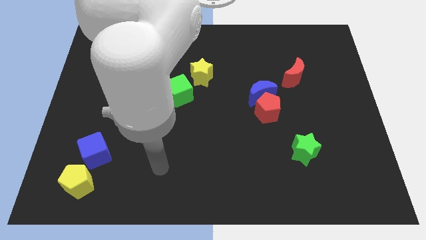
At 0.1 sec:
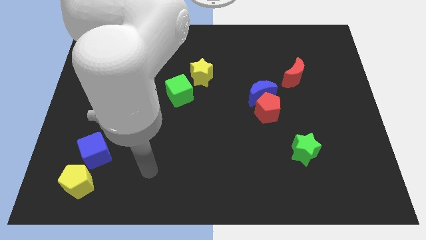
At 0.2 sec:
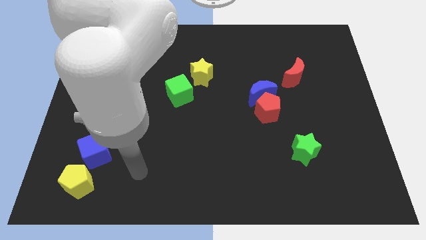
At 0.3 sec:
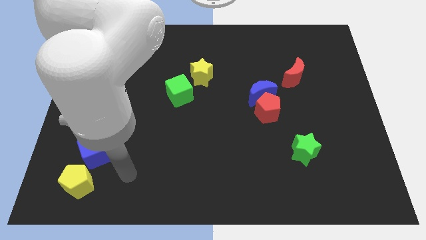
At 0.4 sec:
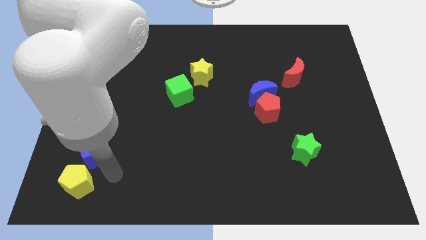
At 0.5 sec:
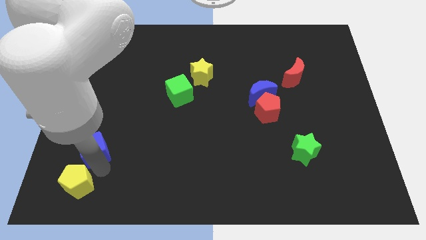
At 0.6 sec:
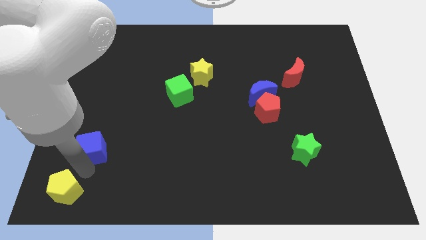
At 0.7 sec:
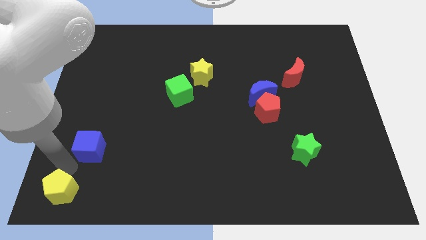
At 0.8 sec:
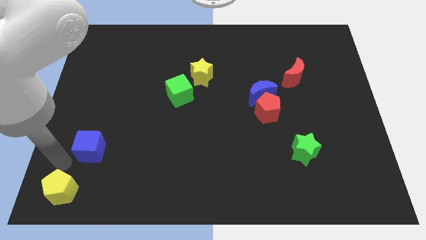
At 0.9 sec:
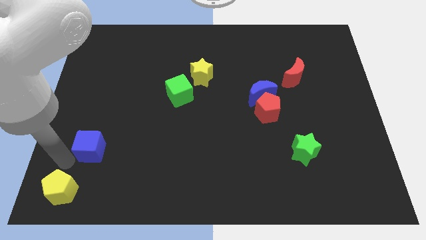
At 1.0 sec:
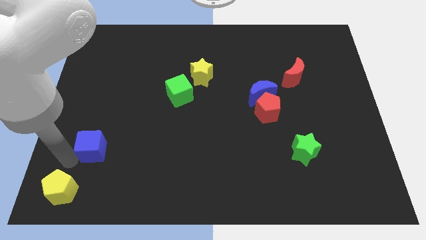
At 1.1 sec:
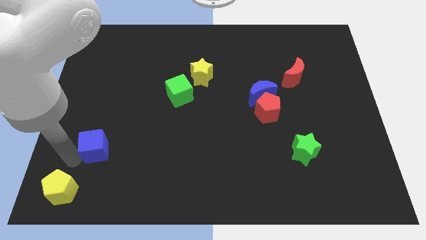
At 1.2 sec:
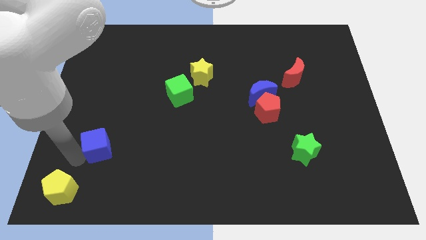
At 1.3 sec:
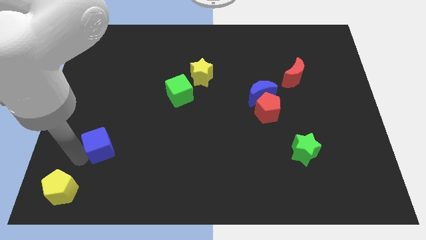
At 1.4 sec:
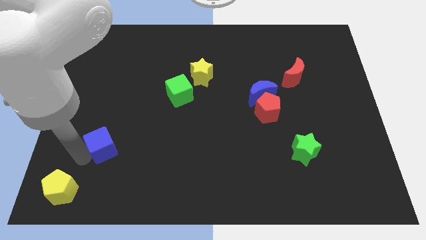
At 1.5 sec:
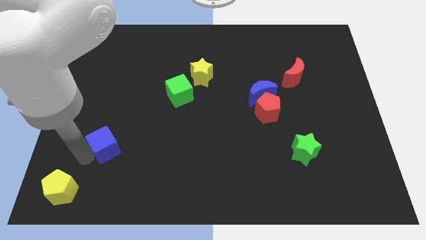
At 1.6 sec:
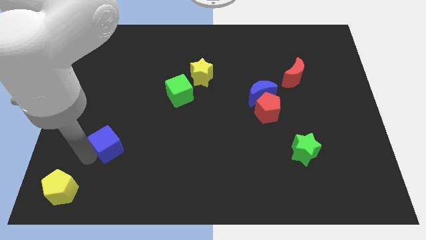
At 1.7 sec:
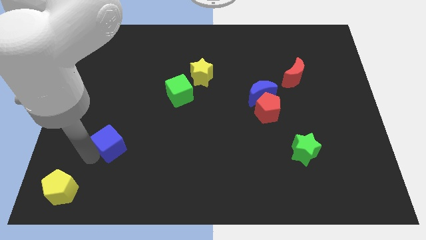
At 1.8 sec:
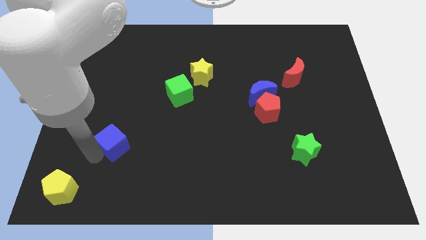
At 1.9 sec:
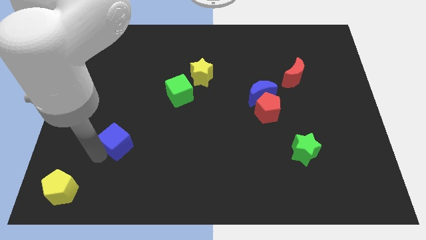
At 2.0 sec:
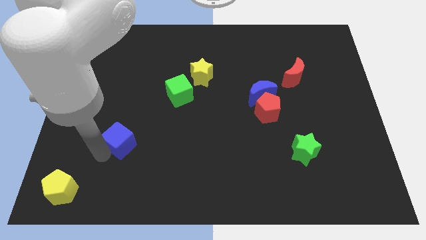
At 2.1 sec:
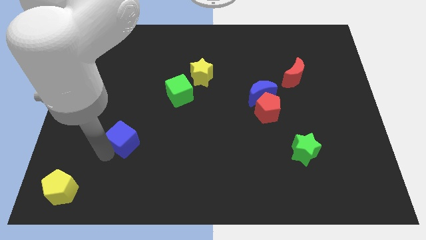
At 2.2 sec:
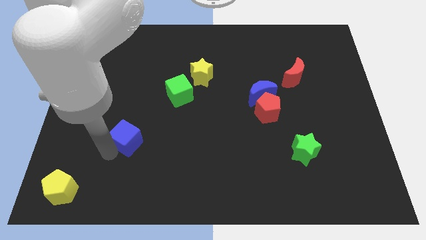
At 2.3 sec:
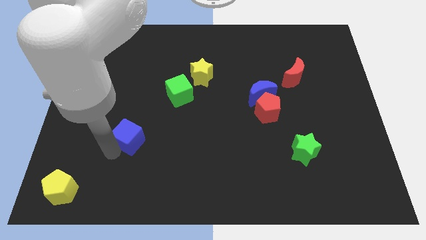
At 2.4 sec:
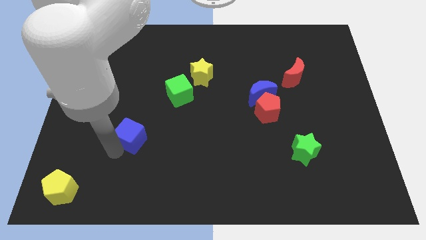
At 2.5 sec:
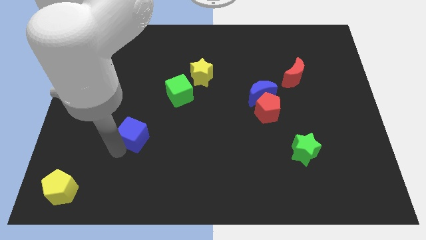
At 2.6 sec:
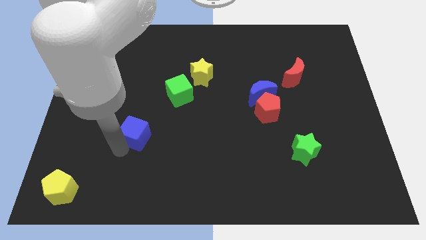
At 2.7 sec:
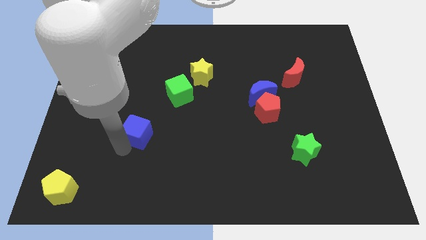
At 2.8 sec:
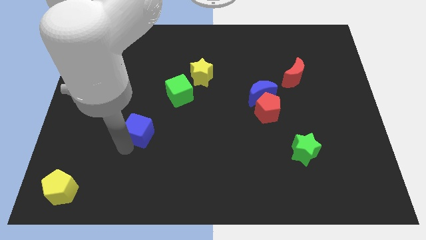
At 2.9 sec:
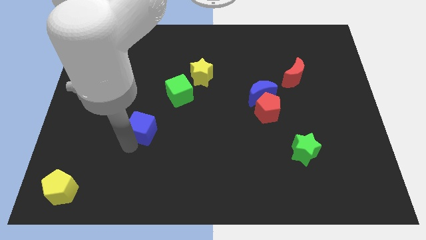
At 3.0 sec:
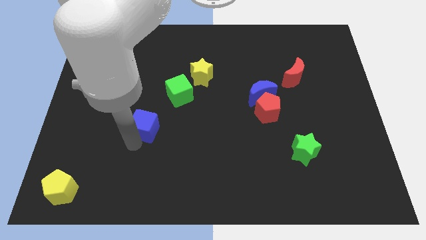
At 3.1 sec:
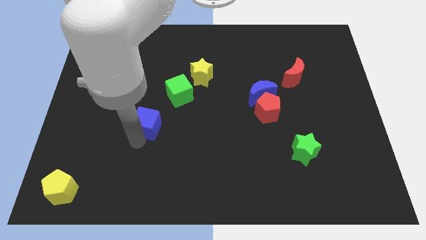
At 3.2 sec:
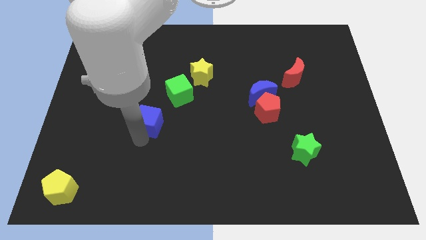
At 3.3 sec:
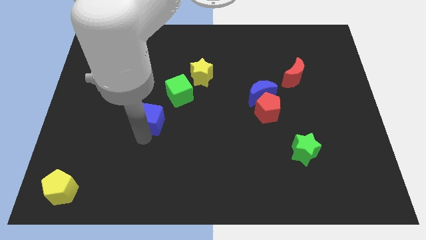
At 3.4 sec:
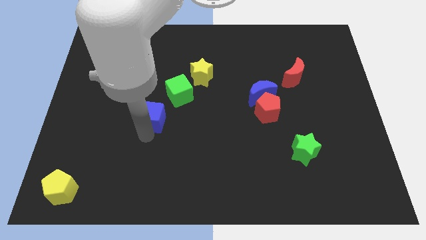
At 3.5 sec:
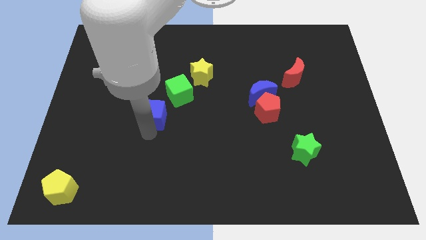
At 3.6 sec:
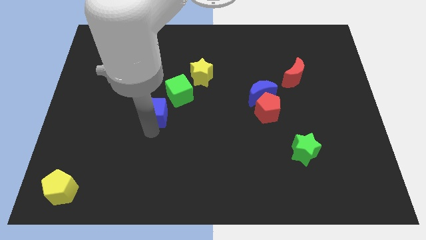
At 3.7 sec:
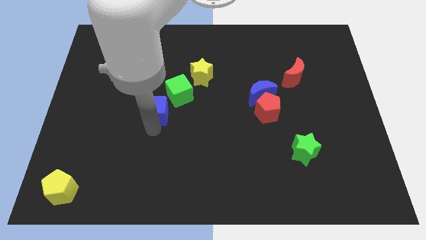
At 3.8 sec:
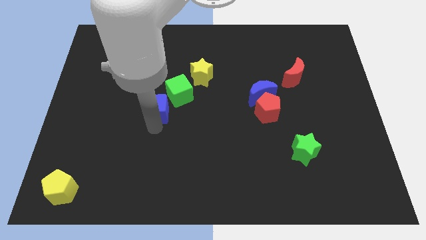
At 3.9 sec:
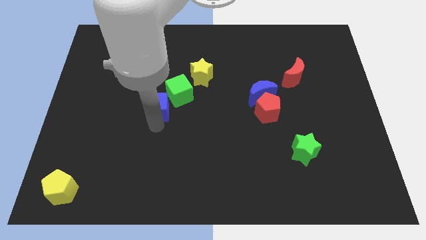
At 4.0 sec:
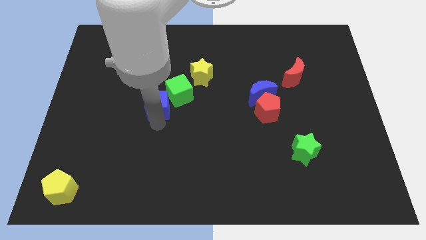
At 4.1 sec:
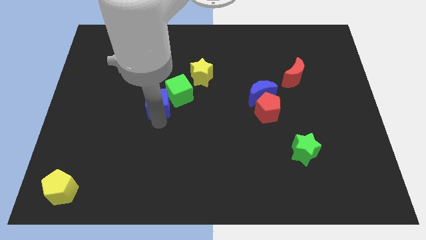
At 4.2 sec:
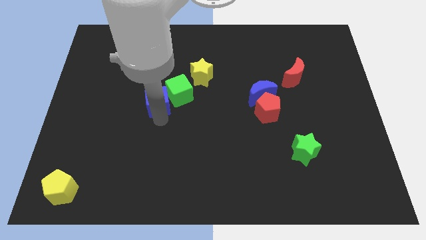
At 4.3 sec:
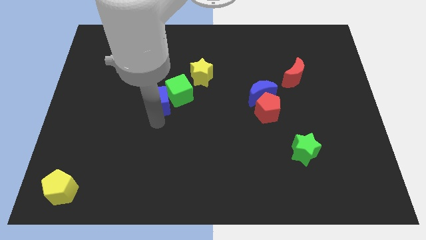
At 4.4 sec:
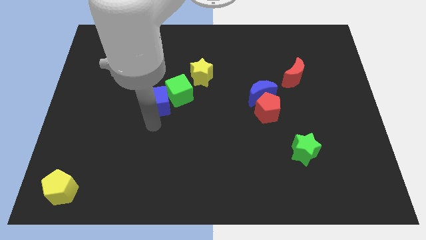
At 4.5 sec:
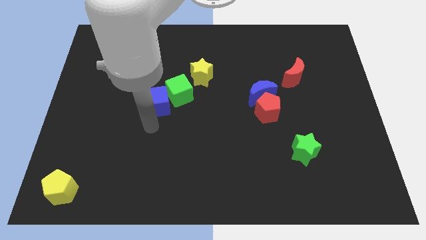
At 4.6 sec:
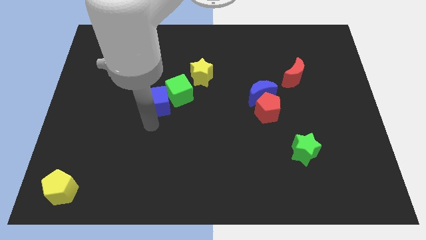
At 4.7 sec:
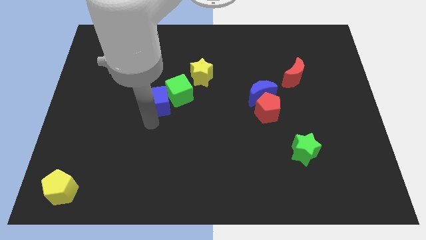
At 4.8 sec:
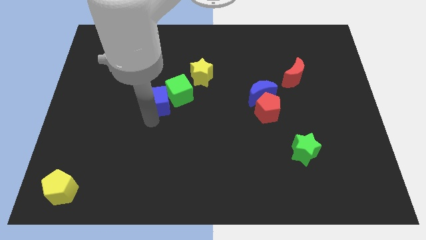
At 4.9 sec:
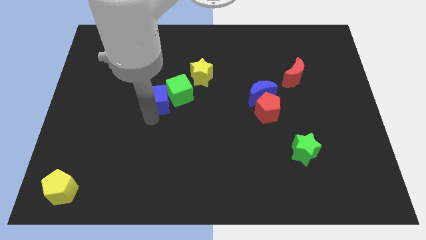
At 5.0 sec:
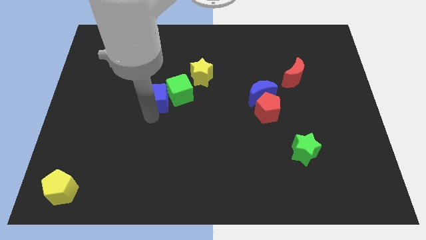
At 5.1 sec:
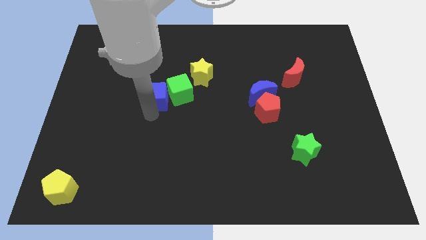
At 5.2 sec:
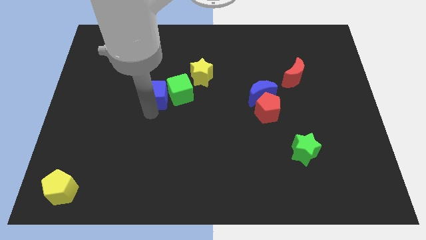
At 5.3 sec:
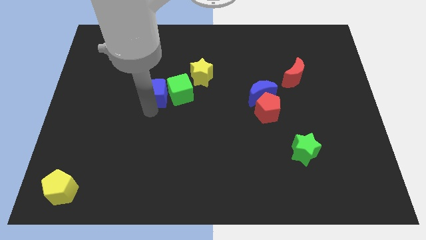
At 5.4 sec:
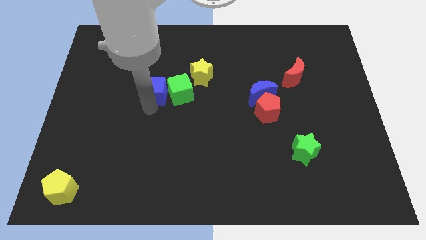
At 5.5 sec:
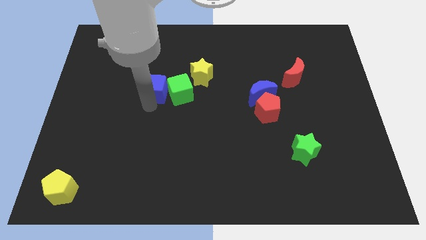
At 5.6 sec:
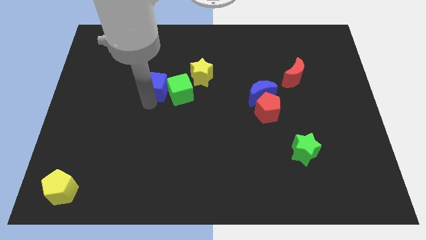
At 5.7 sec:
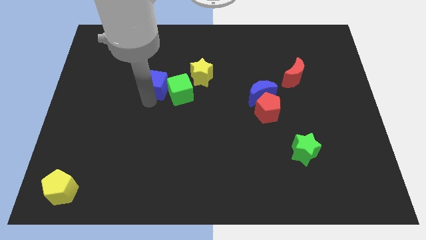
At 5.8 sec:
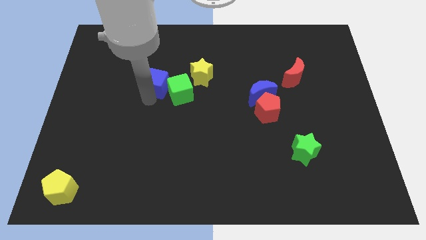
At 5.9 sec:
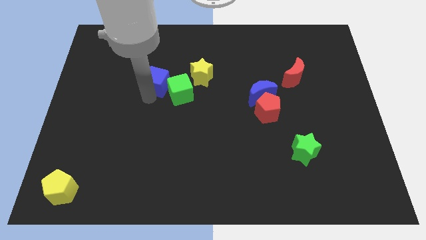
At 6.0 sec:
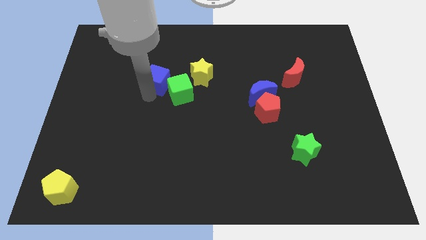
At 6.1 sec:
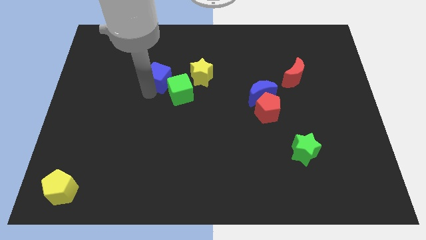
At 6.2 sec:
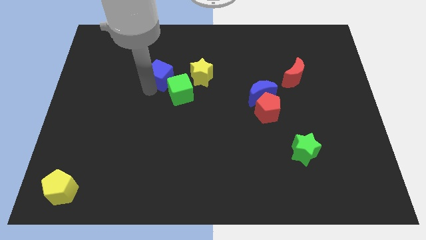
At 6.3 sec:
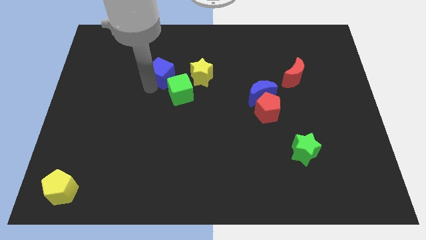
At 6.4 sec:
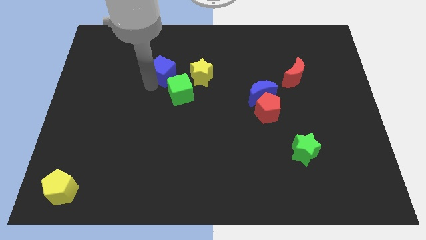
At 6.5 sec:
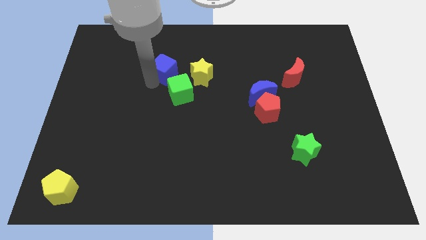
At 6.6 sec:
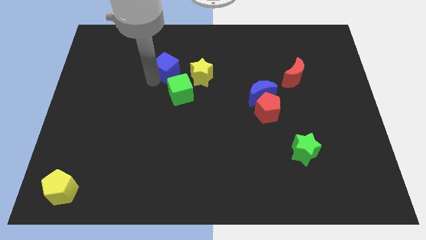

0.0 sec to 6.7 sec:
put the blue cube to the top left of the yellow star
